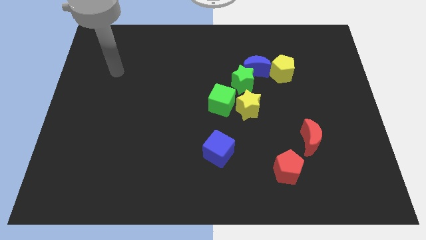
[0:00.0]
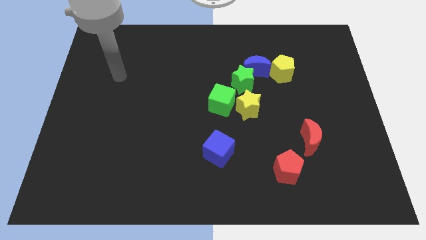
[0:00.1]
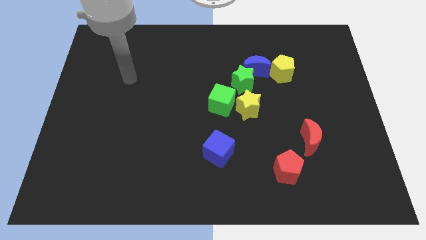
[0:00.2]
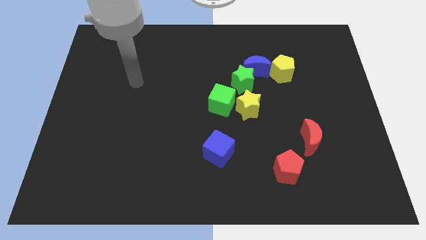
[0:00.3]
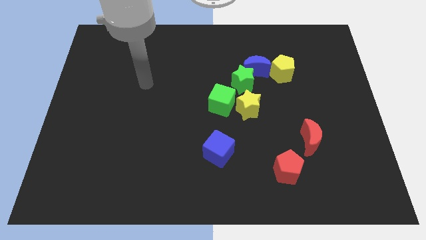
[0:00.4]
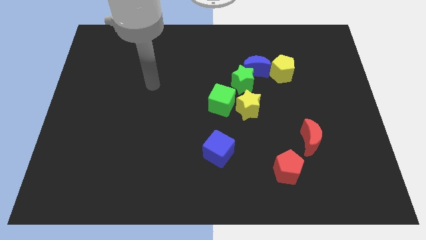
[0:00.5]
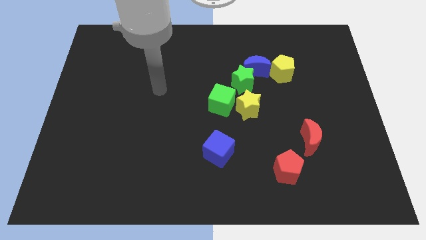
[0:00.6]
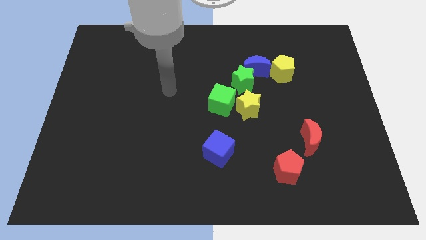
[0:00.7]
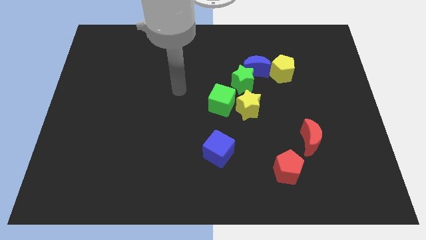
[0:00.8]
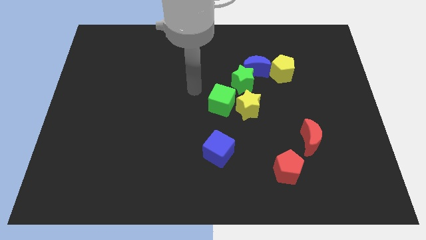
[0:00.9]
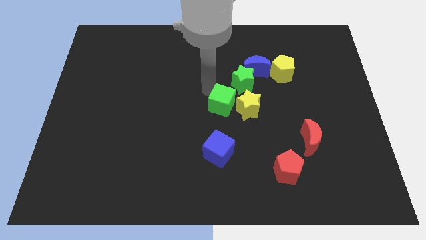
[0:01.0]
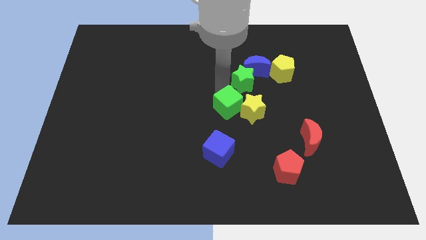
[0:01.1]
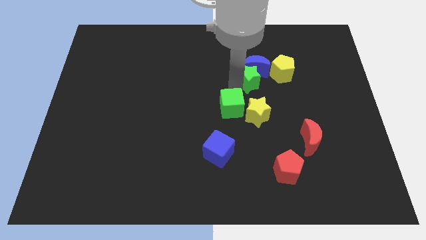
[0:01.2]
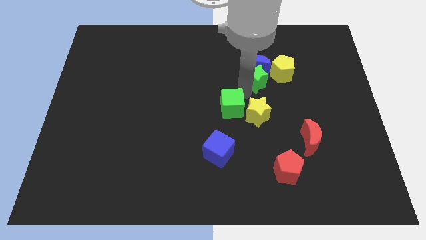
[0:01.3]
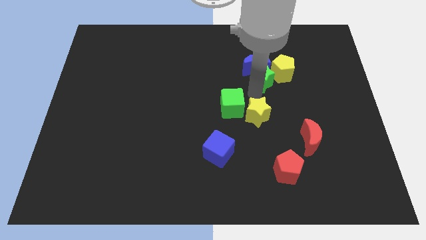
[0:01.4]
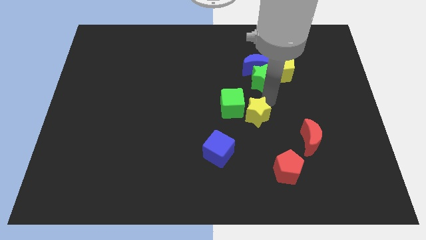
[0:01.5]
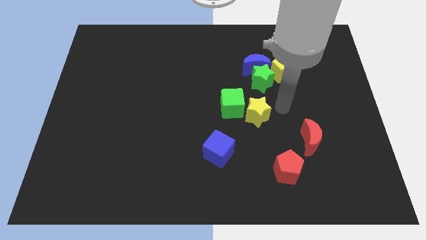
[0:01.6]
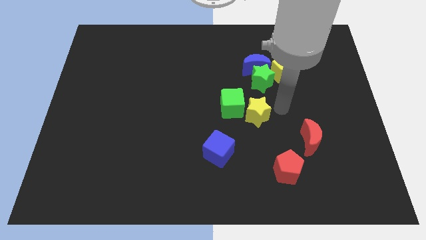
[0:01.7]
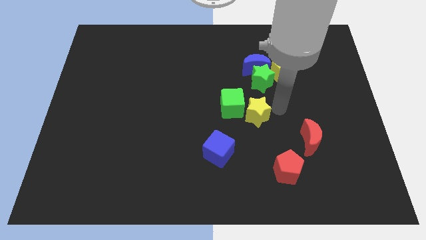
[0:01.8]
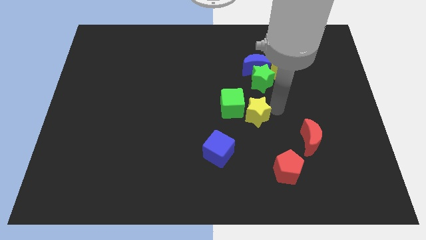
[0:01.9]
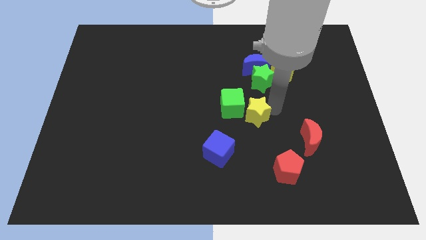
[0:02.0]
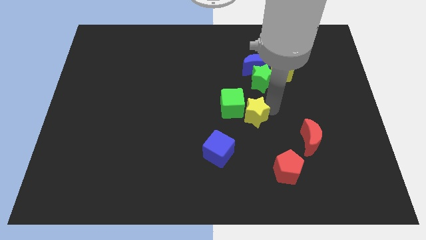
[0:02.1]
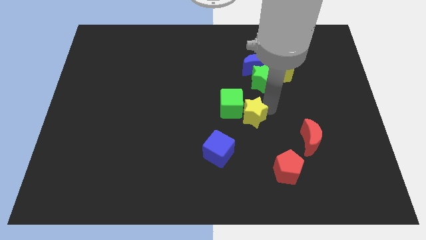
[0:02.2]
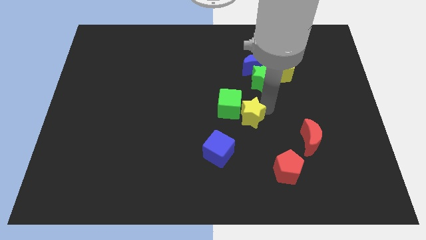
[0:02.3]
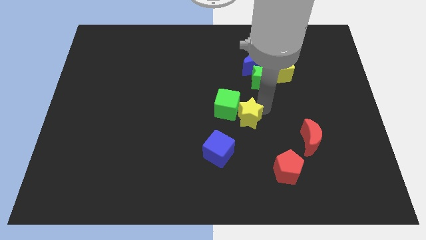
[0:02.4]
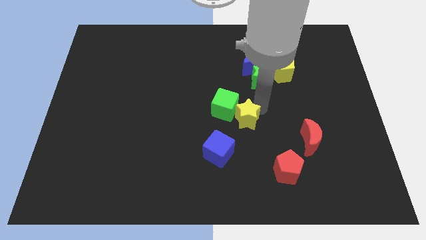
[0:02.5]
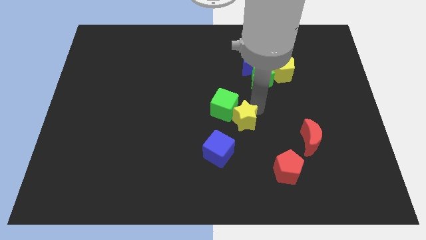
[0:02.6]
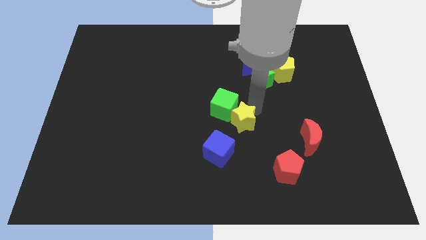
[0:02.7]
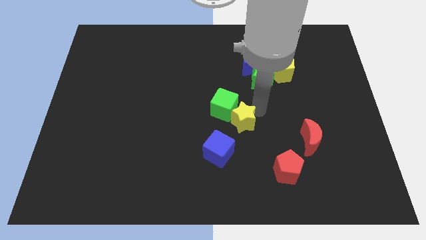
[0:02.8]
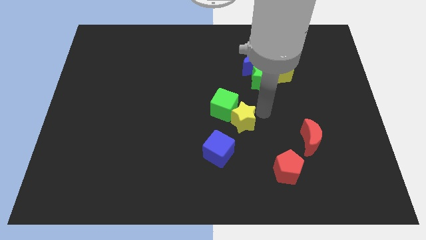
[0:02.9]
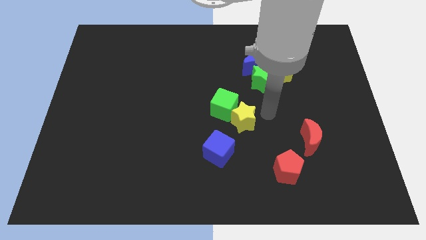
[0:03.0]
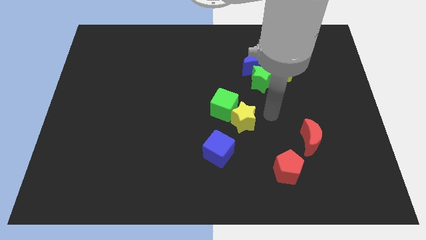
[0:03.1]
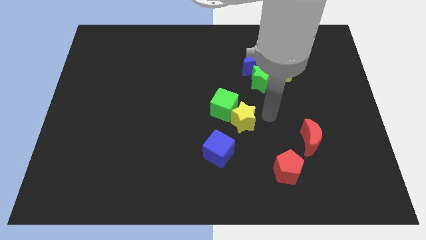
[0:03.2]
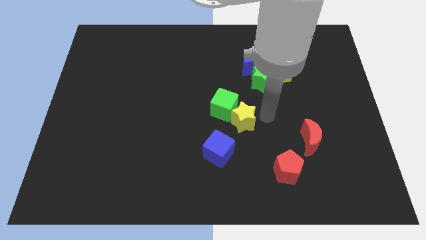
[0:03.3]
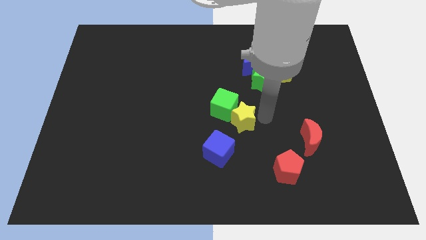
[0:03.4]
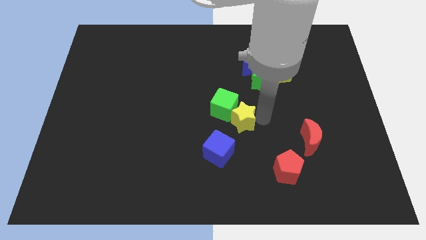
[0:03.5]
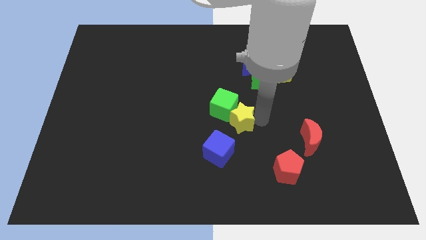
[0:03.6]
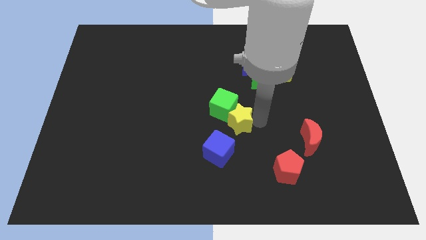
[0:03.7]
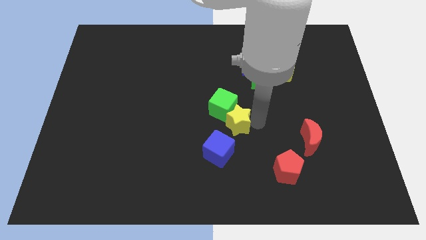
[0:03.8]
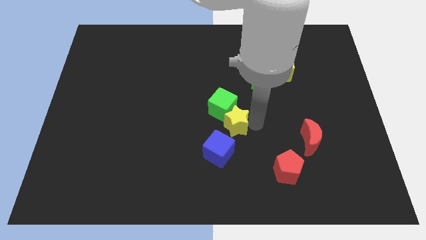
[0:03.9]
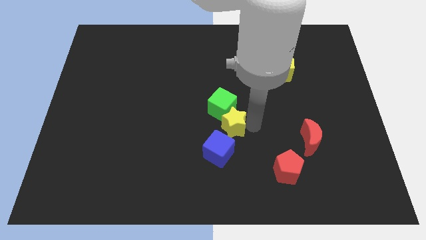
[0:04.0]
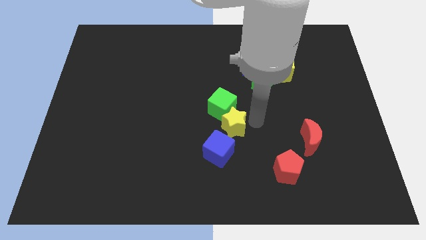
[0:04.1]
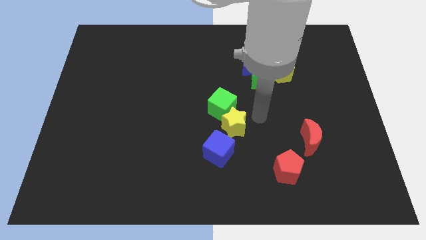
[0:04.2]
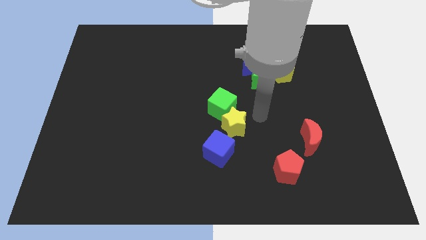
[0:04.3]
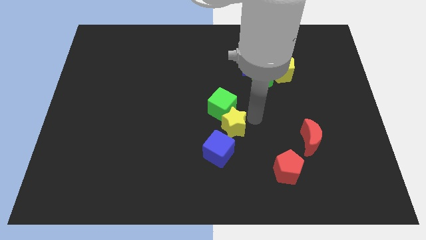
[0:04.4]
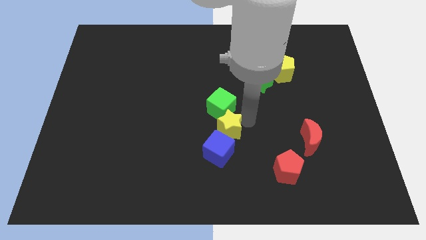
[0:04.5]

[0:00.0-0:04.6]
slightly slide the yellow star downwards and then to the left

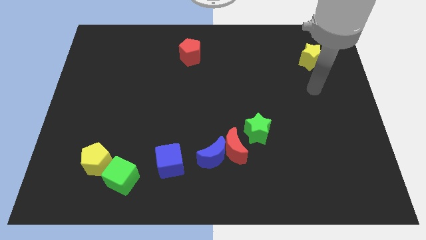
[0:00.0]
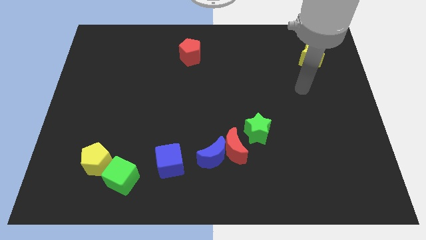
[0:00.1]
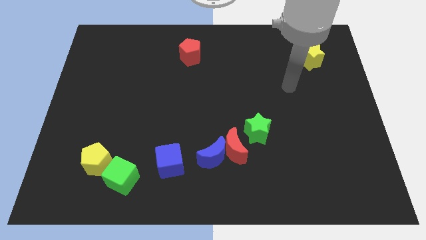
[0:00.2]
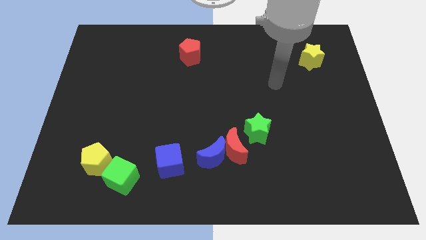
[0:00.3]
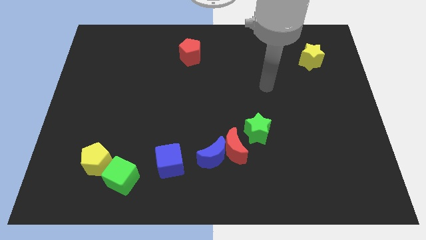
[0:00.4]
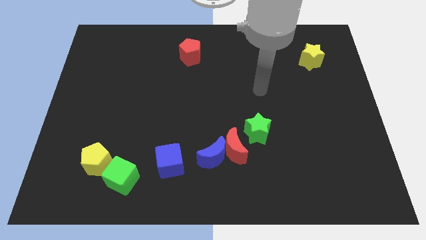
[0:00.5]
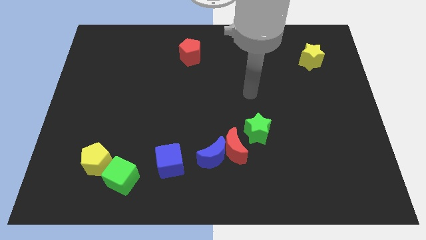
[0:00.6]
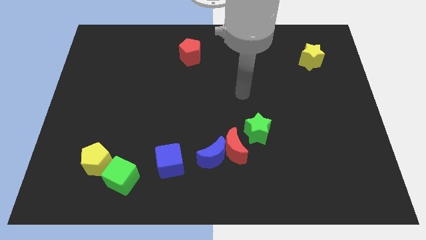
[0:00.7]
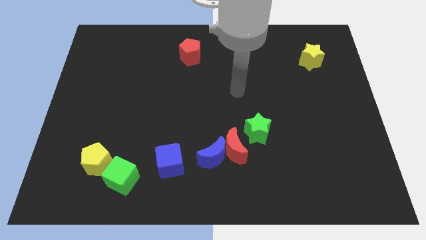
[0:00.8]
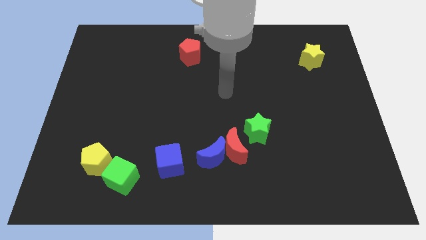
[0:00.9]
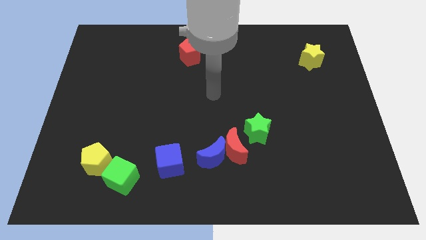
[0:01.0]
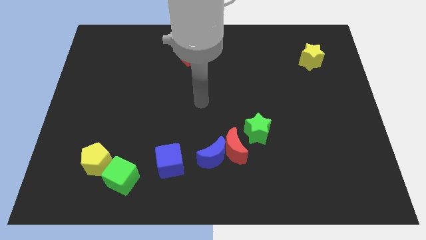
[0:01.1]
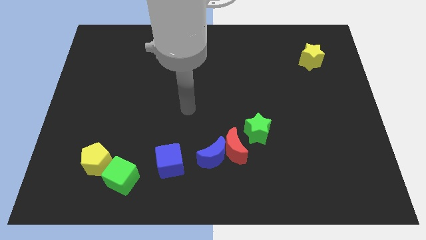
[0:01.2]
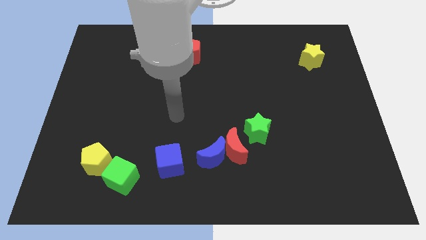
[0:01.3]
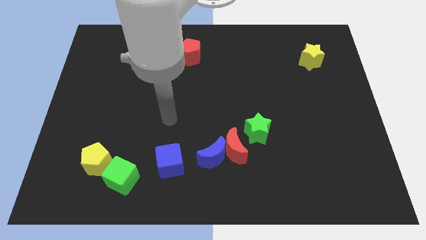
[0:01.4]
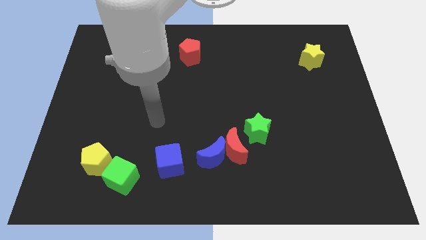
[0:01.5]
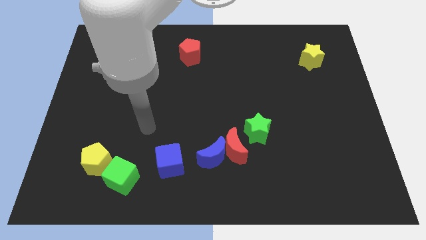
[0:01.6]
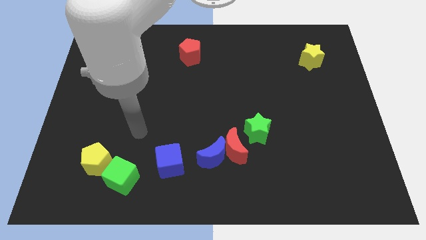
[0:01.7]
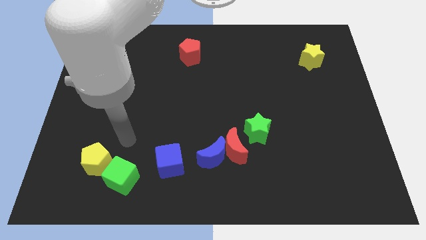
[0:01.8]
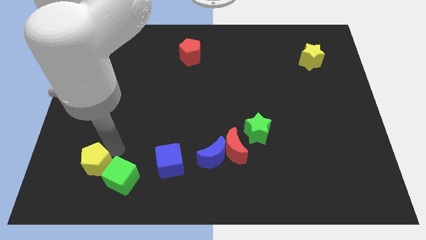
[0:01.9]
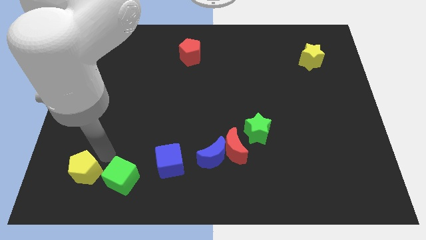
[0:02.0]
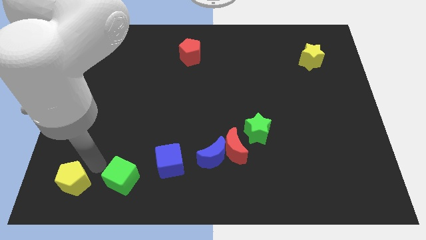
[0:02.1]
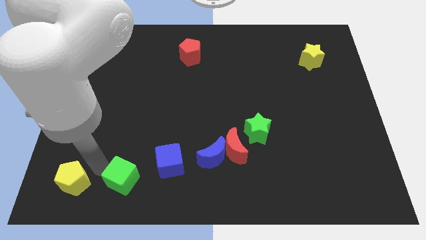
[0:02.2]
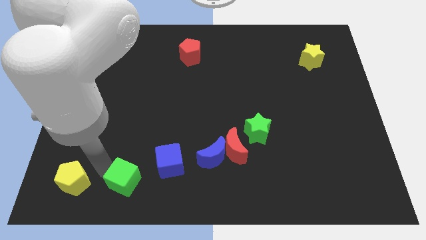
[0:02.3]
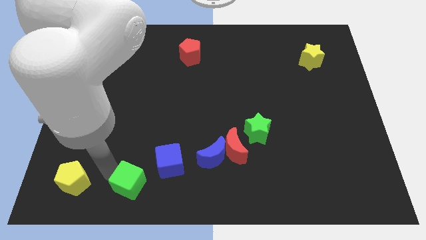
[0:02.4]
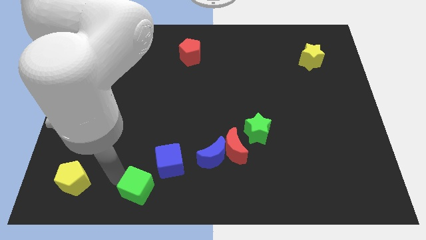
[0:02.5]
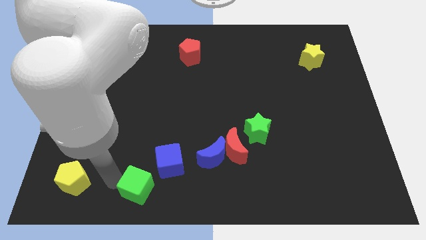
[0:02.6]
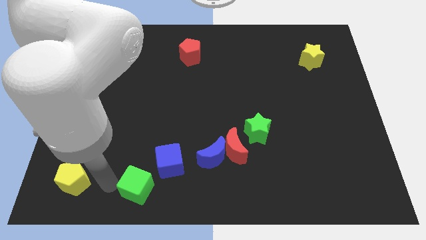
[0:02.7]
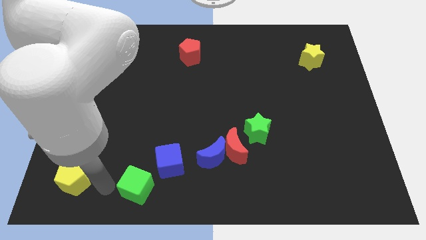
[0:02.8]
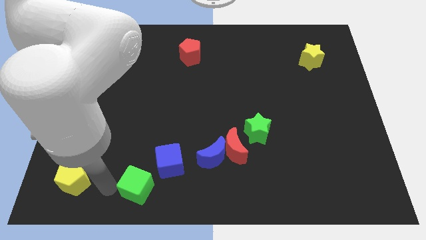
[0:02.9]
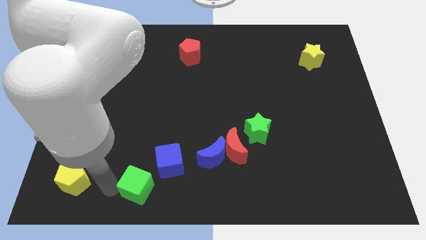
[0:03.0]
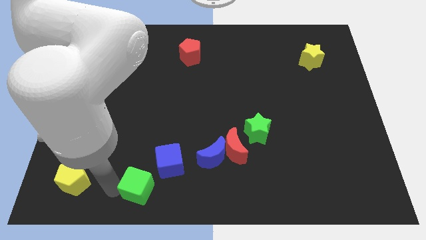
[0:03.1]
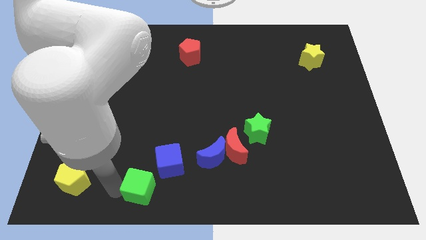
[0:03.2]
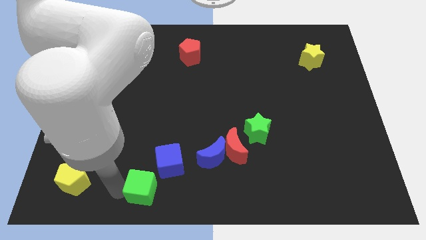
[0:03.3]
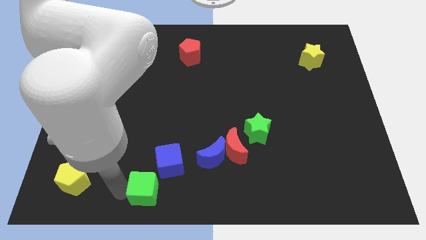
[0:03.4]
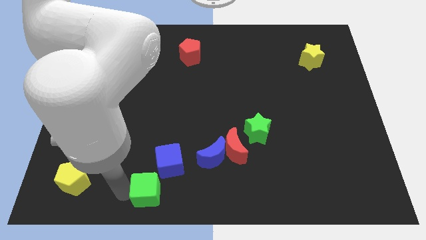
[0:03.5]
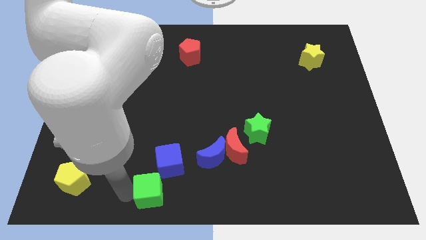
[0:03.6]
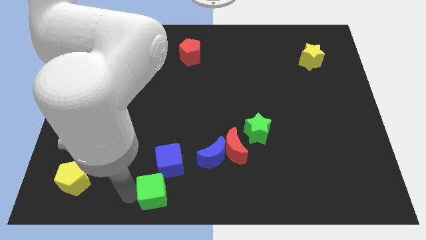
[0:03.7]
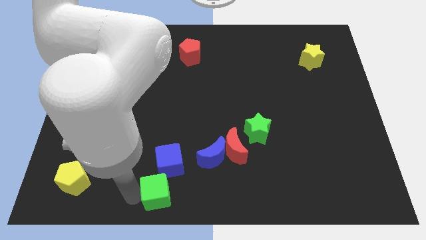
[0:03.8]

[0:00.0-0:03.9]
move the green cube a little right

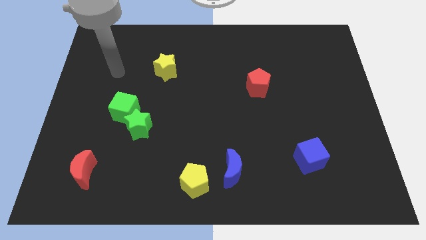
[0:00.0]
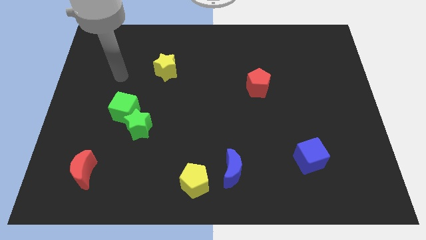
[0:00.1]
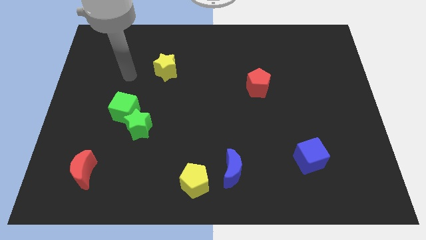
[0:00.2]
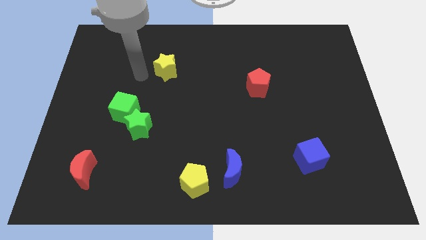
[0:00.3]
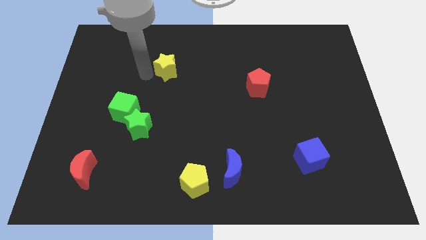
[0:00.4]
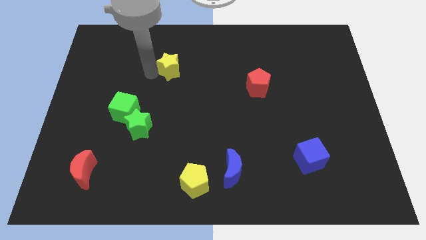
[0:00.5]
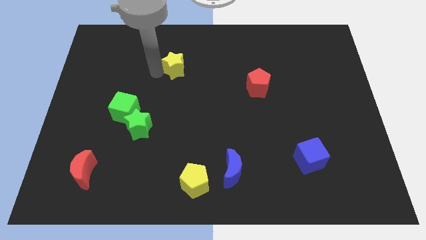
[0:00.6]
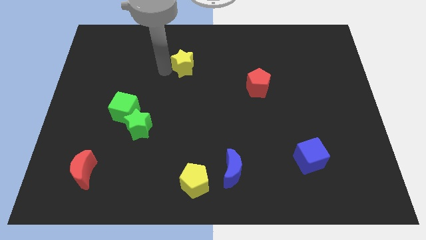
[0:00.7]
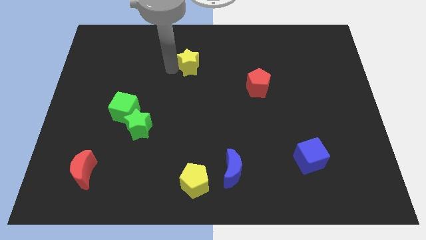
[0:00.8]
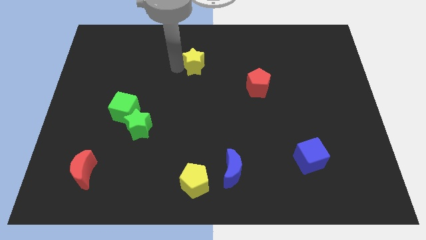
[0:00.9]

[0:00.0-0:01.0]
slide the yellow star to the right a little bit
